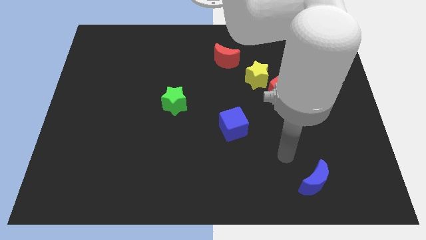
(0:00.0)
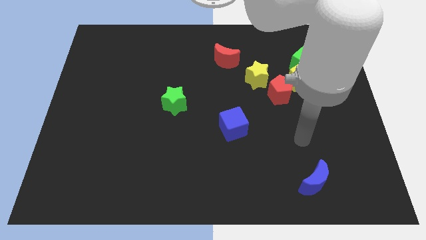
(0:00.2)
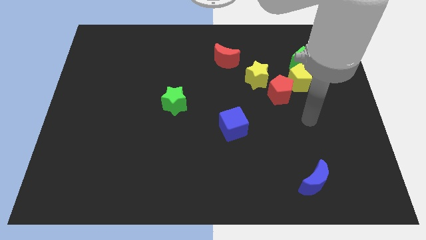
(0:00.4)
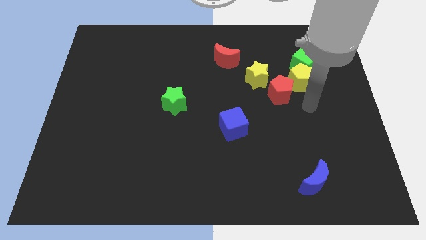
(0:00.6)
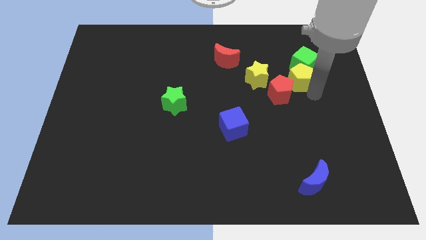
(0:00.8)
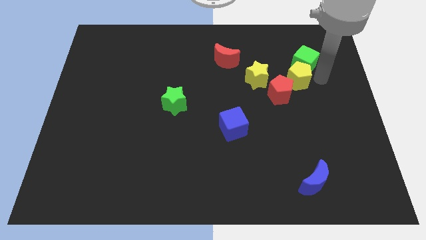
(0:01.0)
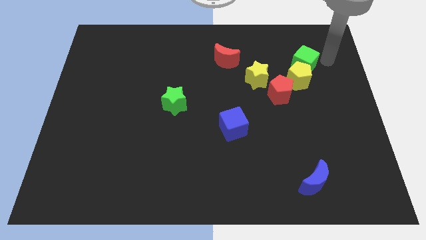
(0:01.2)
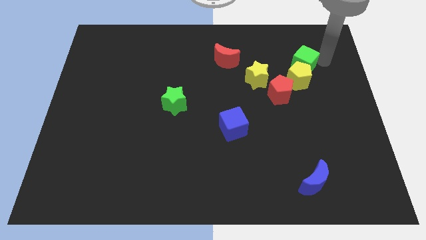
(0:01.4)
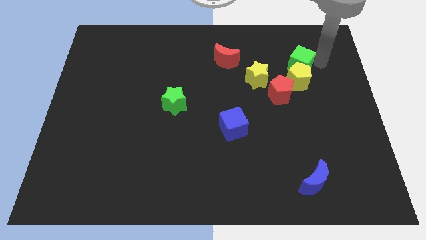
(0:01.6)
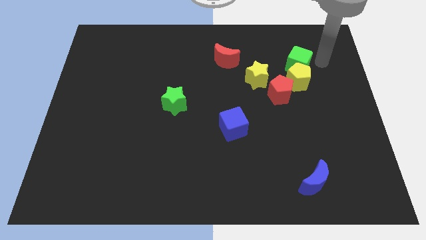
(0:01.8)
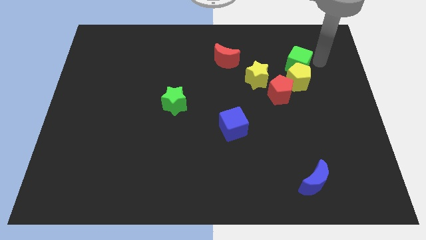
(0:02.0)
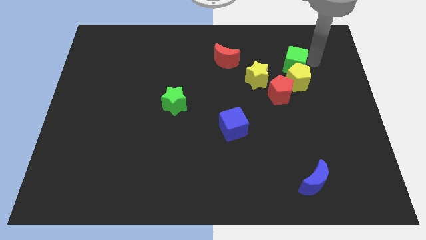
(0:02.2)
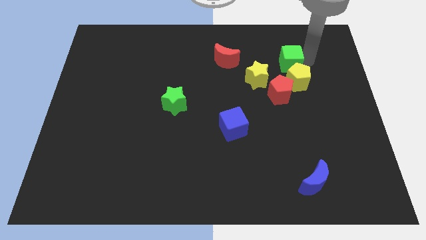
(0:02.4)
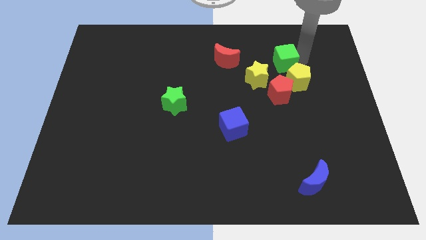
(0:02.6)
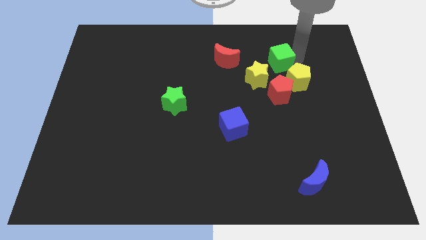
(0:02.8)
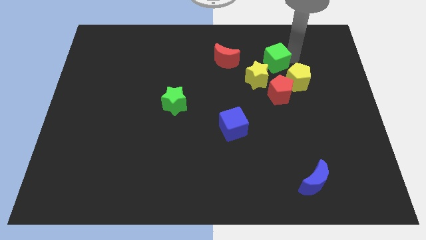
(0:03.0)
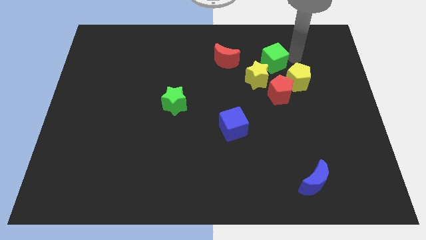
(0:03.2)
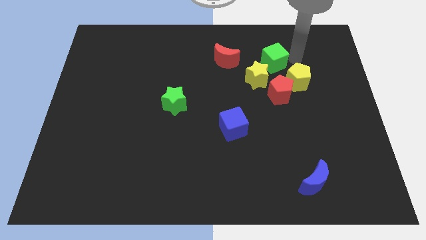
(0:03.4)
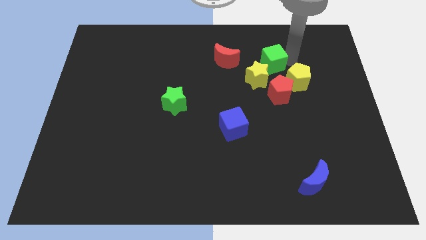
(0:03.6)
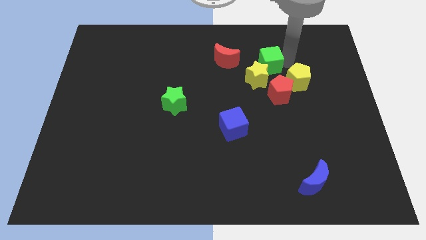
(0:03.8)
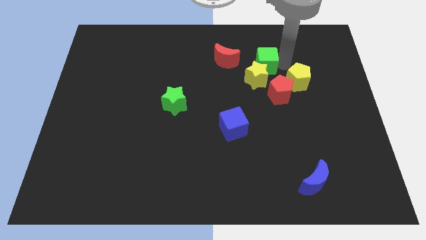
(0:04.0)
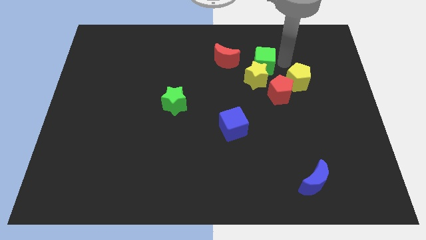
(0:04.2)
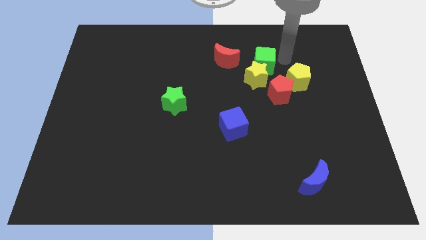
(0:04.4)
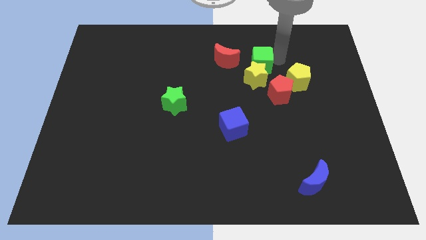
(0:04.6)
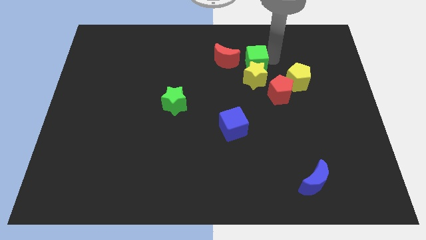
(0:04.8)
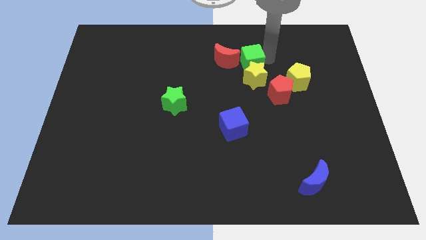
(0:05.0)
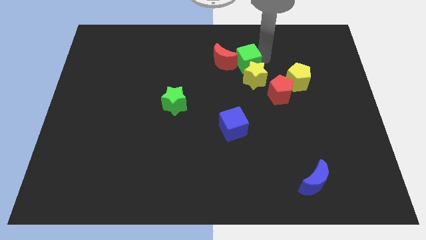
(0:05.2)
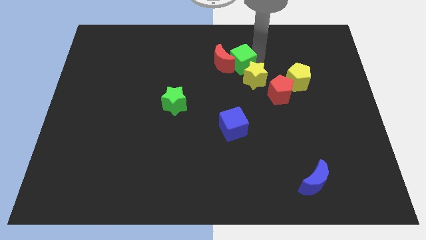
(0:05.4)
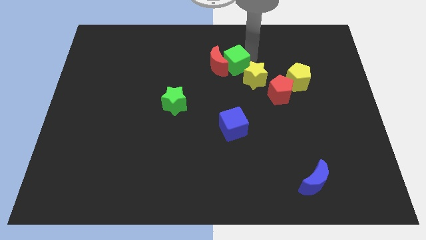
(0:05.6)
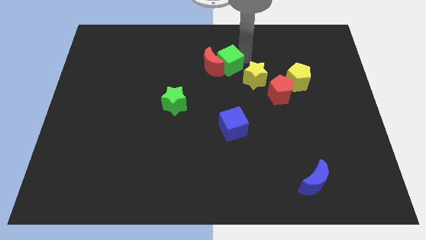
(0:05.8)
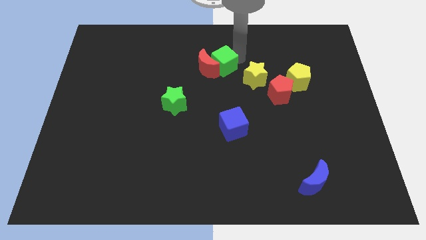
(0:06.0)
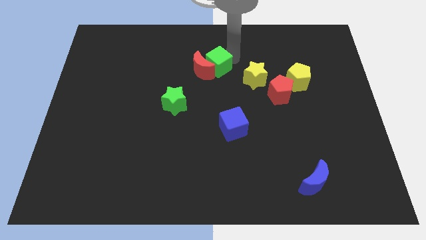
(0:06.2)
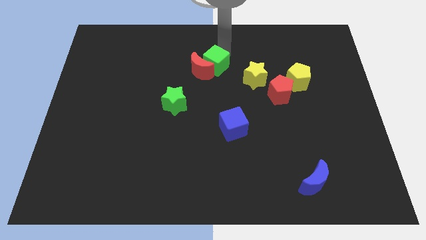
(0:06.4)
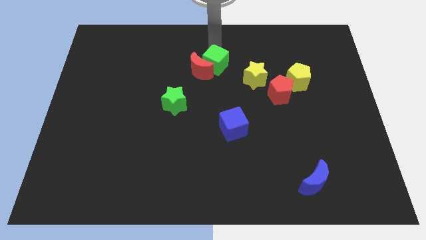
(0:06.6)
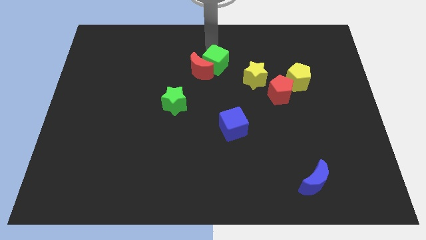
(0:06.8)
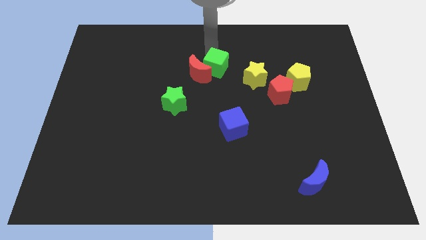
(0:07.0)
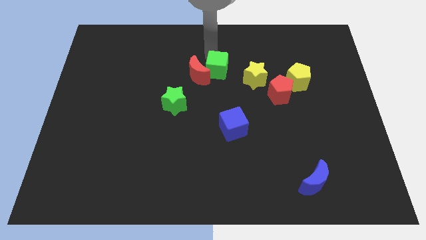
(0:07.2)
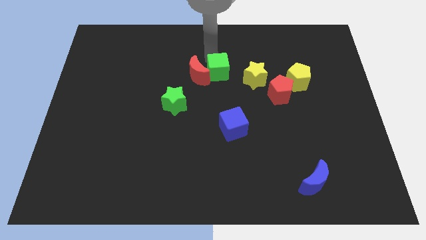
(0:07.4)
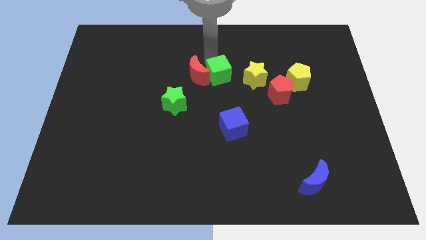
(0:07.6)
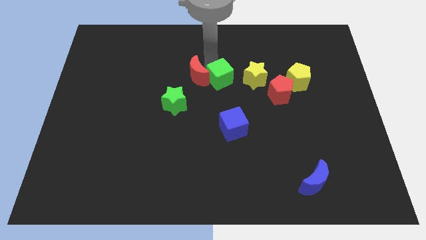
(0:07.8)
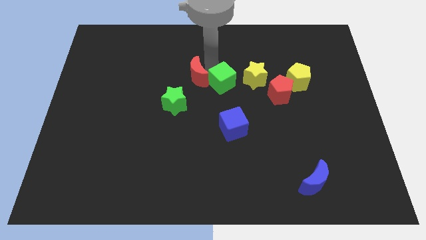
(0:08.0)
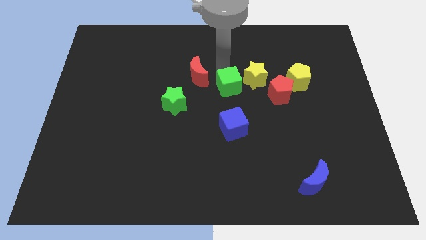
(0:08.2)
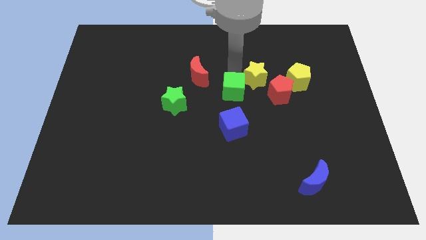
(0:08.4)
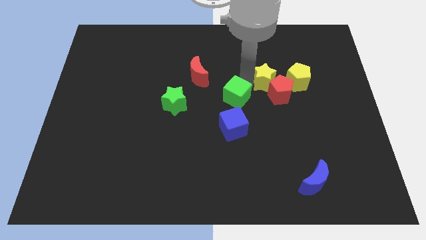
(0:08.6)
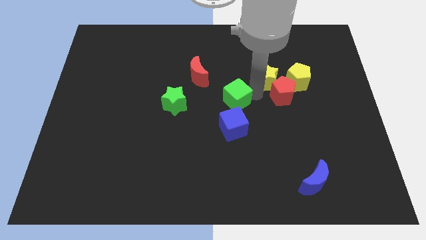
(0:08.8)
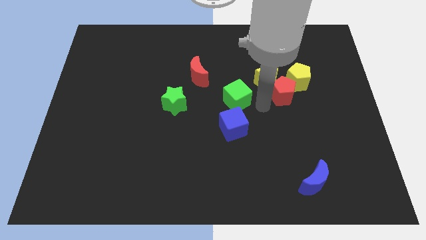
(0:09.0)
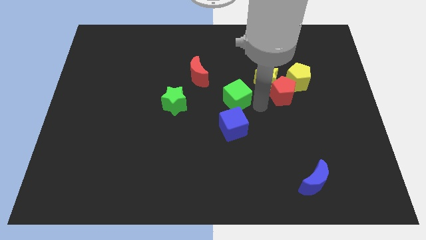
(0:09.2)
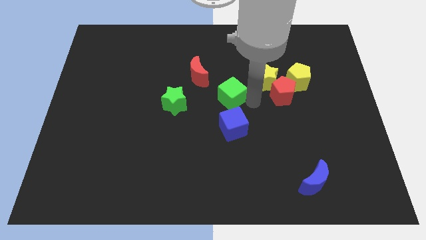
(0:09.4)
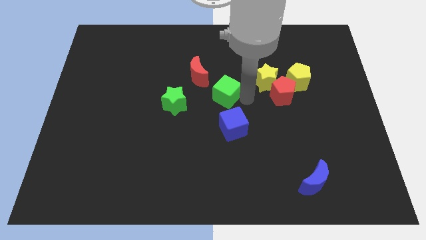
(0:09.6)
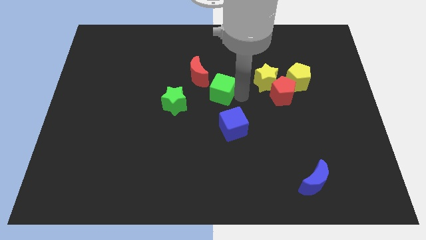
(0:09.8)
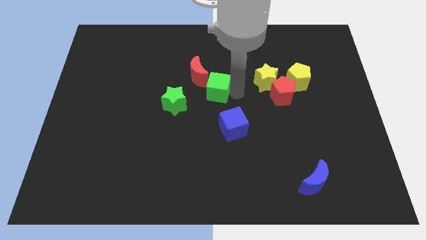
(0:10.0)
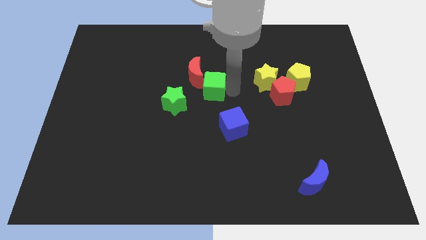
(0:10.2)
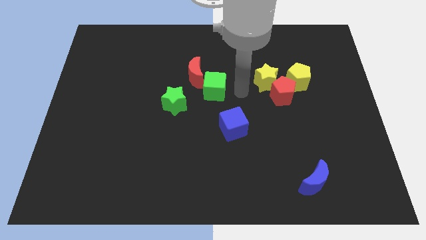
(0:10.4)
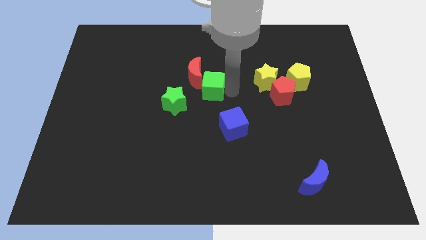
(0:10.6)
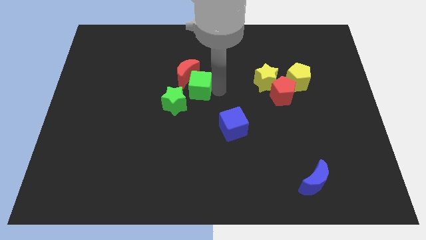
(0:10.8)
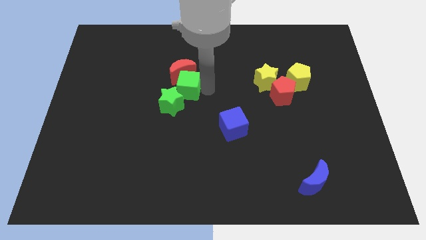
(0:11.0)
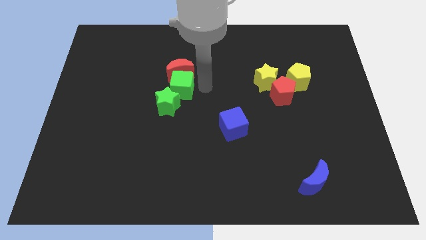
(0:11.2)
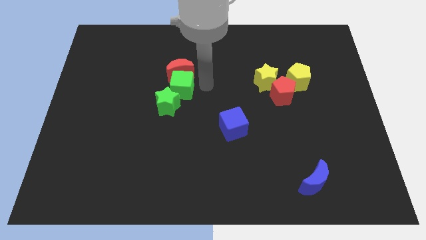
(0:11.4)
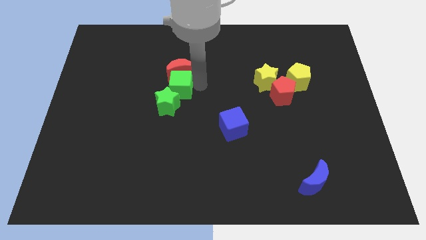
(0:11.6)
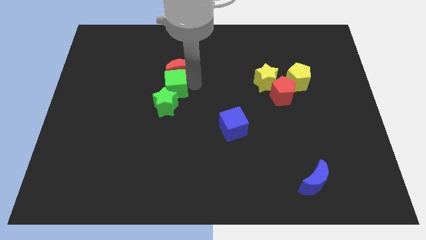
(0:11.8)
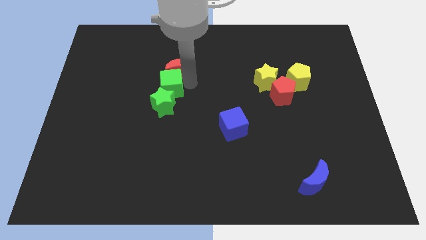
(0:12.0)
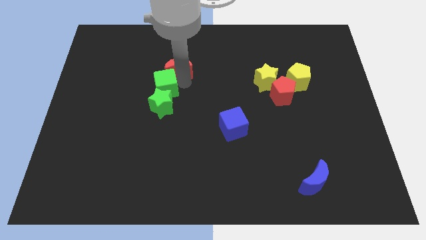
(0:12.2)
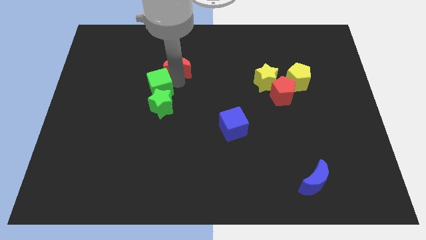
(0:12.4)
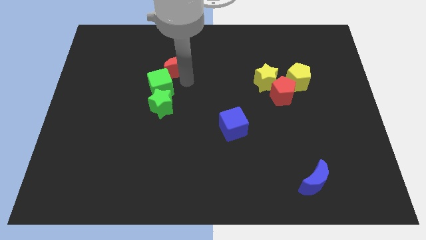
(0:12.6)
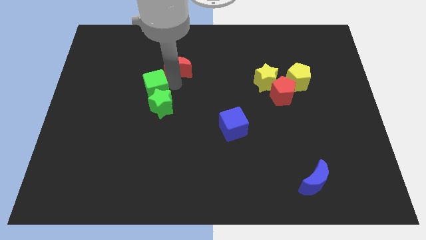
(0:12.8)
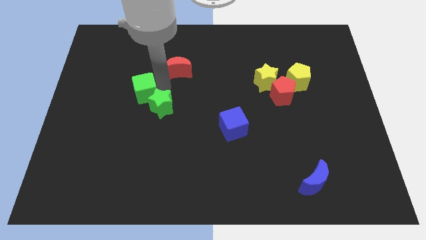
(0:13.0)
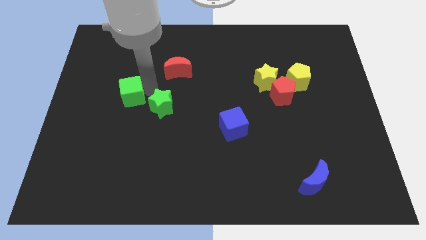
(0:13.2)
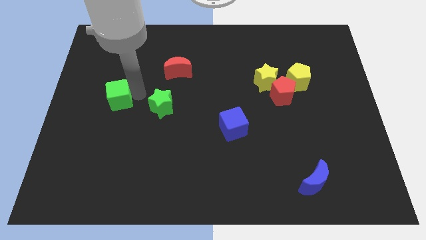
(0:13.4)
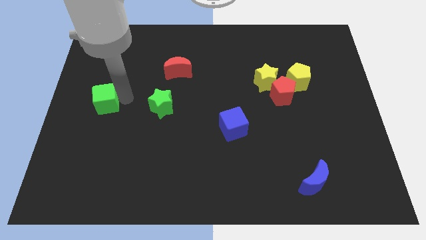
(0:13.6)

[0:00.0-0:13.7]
slide the green cube to the center left
